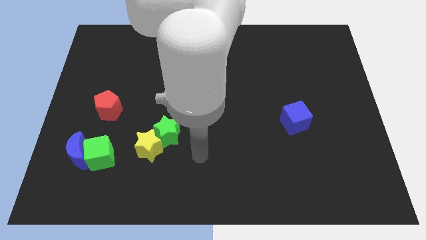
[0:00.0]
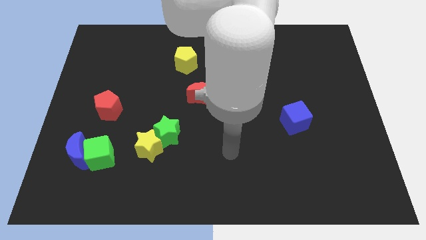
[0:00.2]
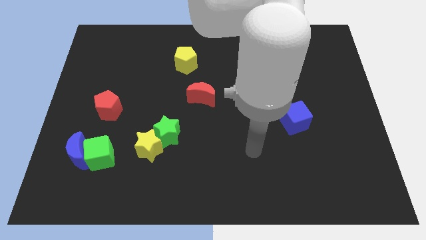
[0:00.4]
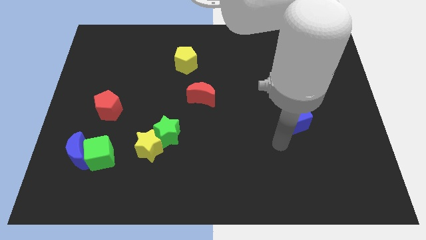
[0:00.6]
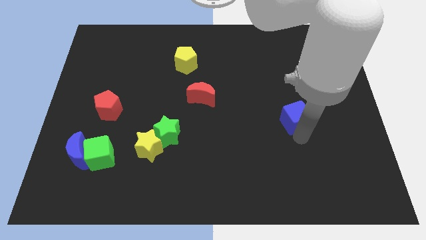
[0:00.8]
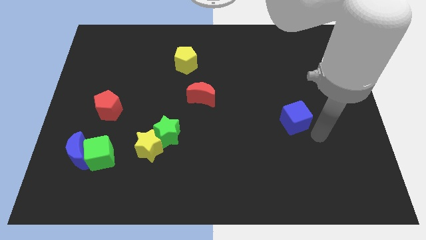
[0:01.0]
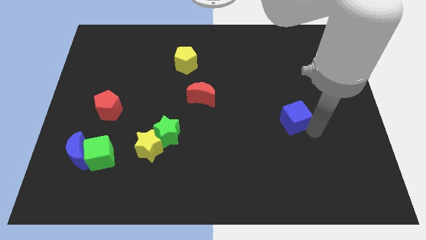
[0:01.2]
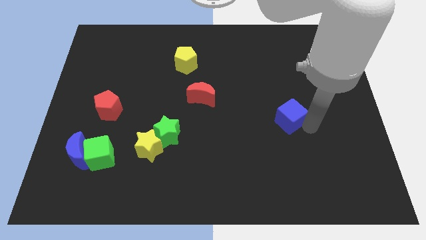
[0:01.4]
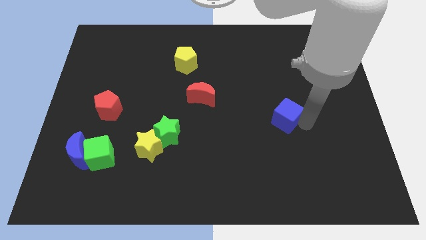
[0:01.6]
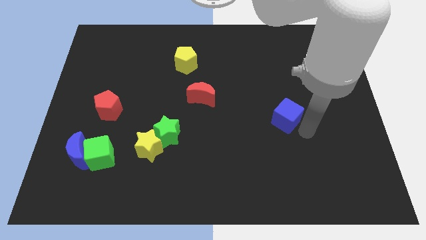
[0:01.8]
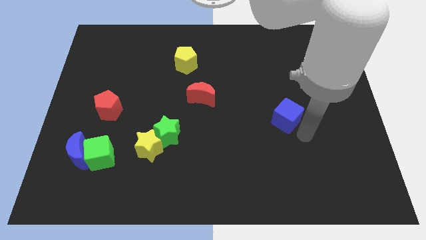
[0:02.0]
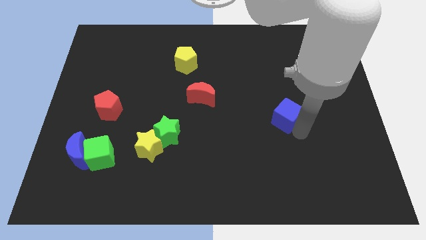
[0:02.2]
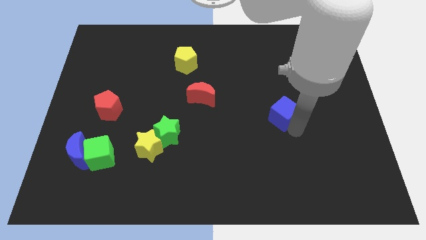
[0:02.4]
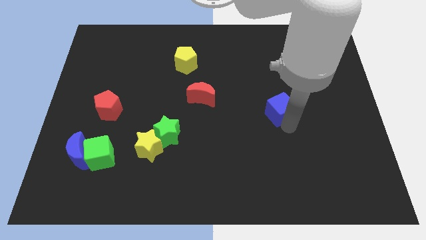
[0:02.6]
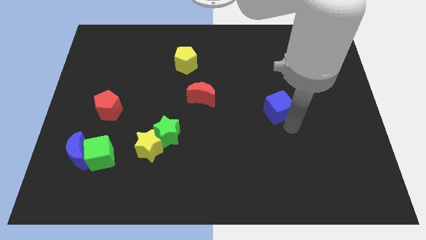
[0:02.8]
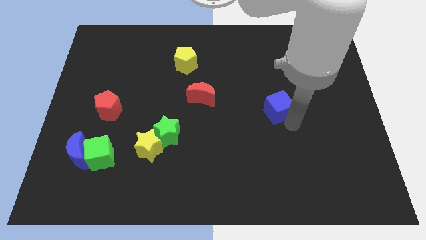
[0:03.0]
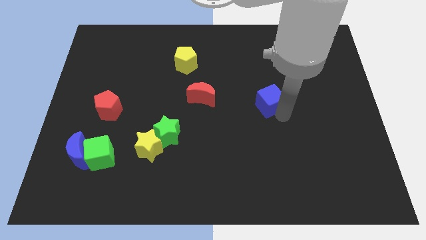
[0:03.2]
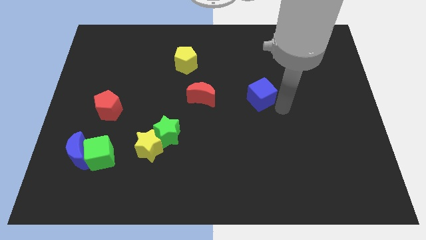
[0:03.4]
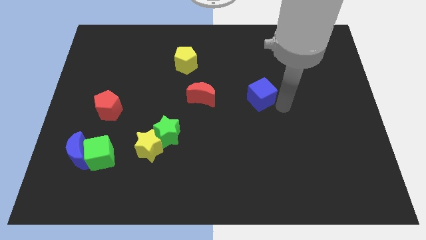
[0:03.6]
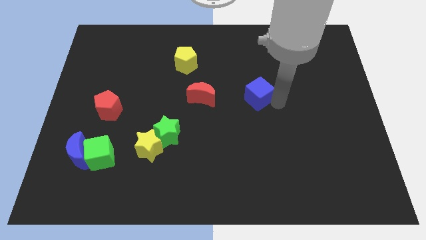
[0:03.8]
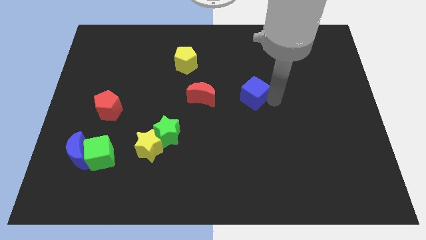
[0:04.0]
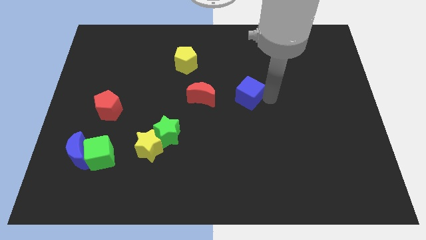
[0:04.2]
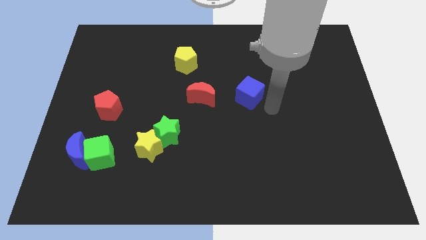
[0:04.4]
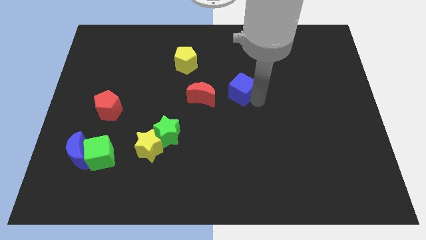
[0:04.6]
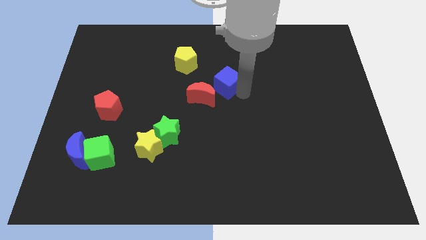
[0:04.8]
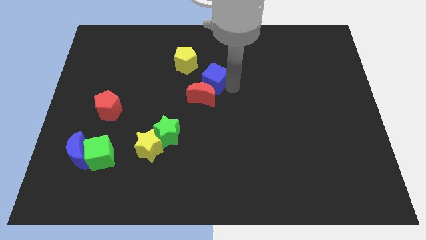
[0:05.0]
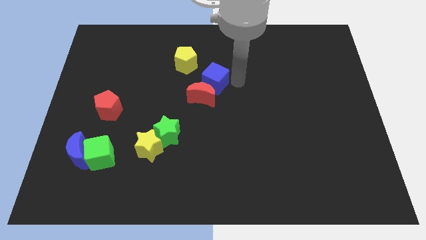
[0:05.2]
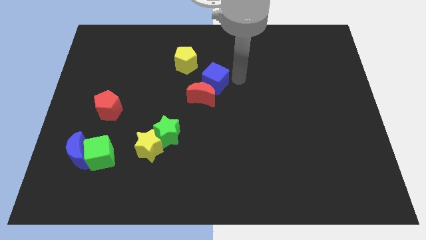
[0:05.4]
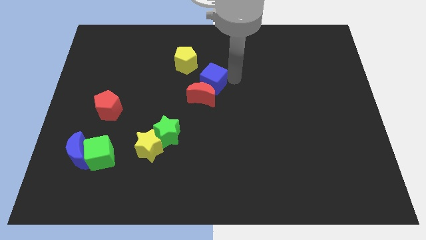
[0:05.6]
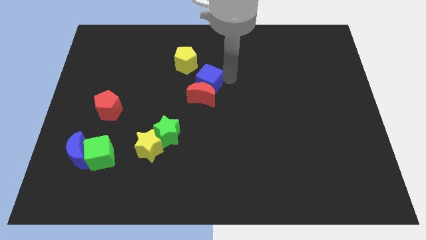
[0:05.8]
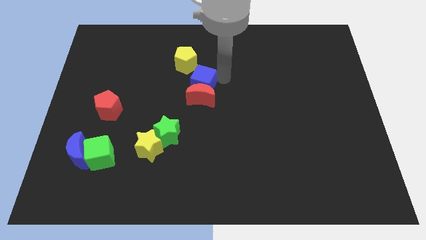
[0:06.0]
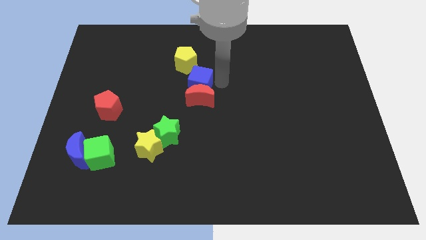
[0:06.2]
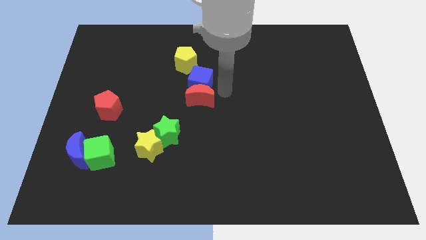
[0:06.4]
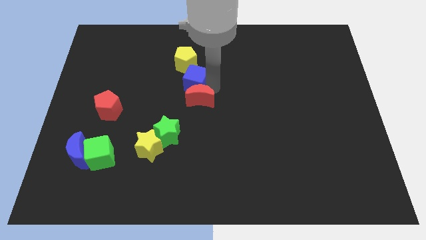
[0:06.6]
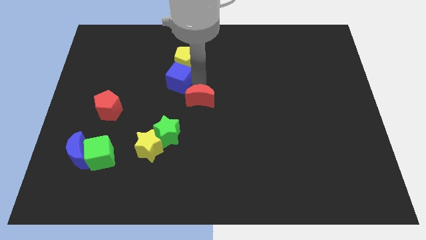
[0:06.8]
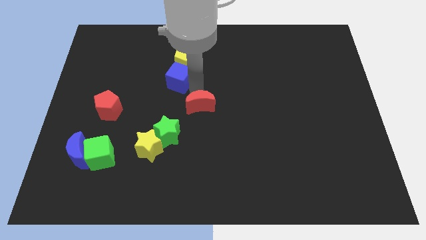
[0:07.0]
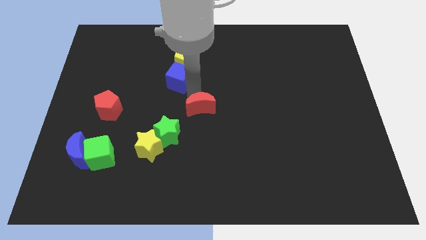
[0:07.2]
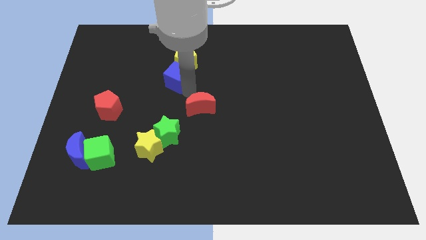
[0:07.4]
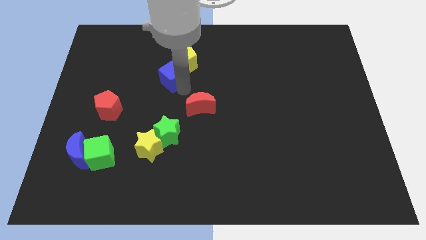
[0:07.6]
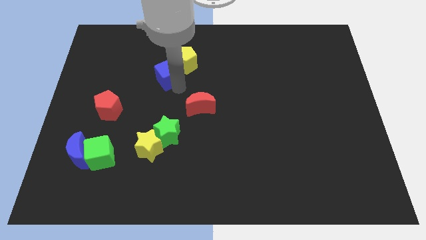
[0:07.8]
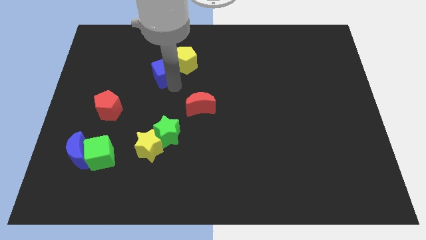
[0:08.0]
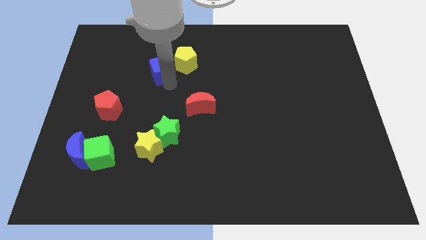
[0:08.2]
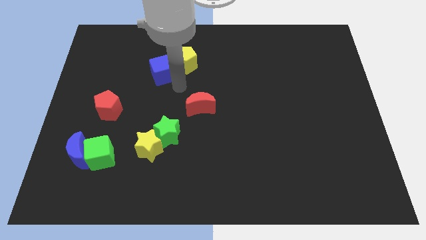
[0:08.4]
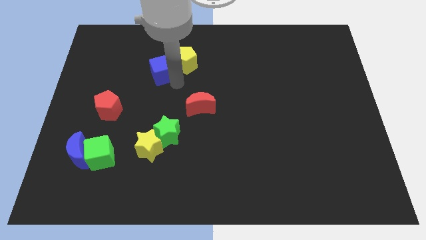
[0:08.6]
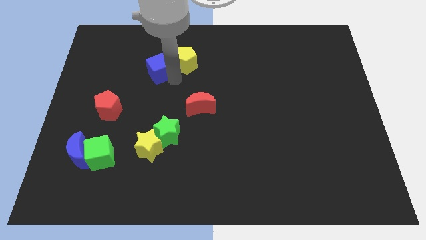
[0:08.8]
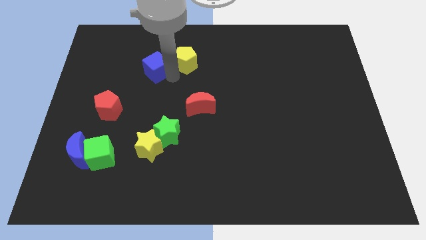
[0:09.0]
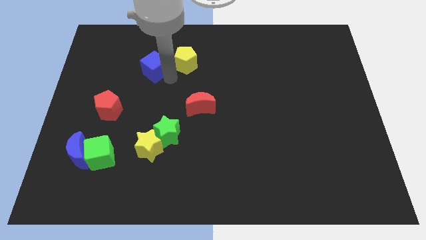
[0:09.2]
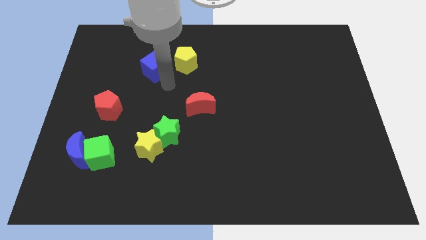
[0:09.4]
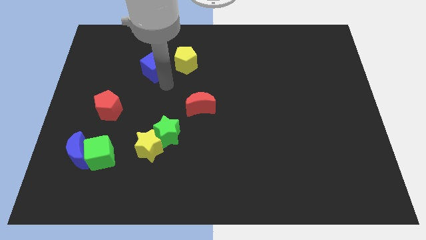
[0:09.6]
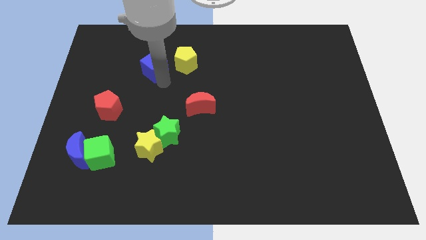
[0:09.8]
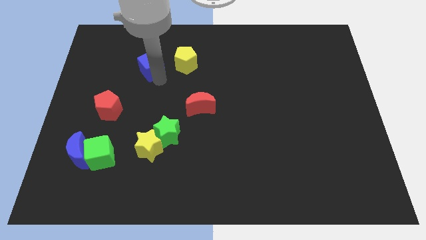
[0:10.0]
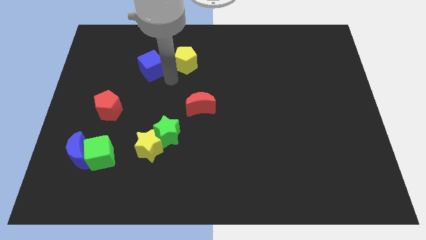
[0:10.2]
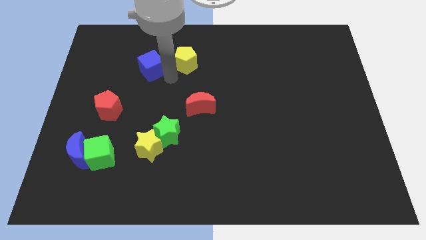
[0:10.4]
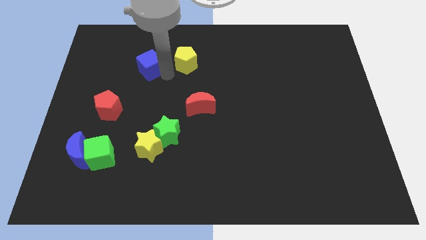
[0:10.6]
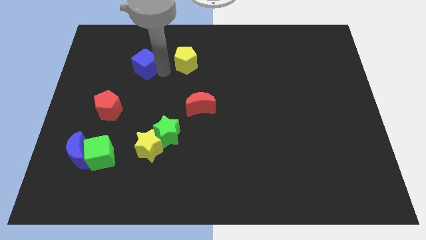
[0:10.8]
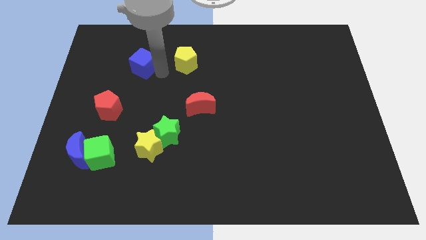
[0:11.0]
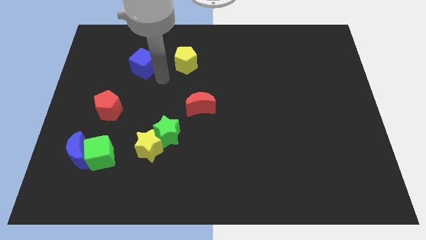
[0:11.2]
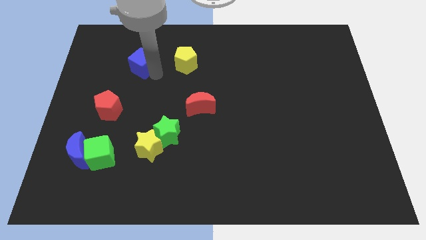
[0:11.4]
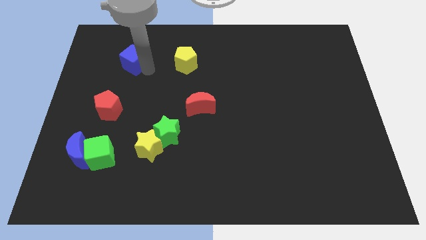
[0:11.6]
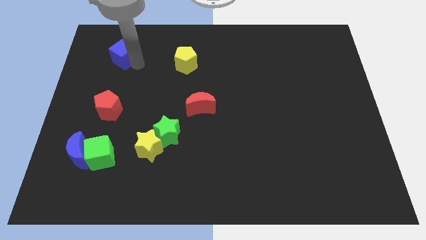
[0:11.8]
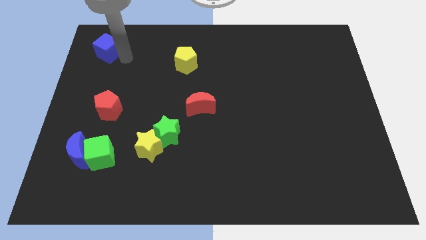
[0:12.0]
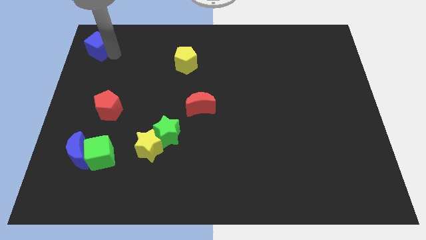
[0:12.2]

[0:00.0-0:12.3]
move the blue cube to the top left corner
